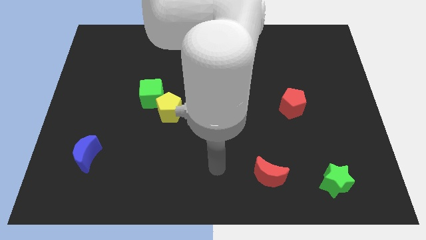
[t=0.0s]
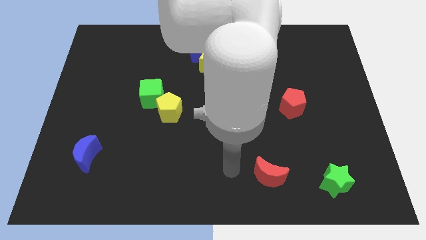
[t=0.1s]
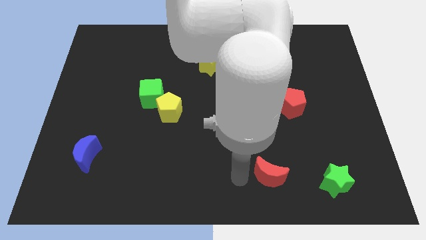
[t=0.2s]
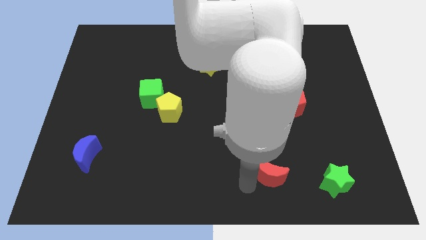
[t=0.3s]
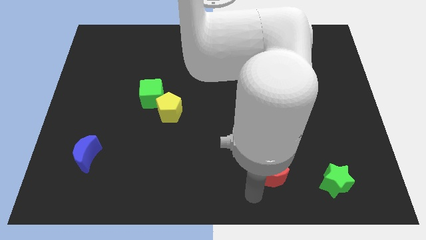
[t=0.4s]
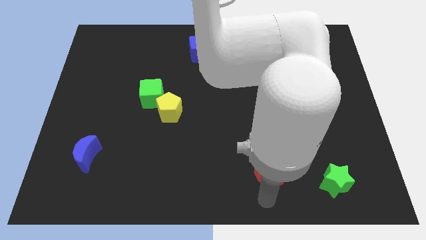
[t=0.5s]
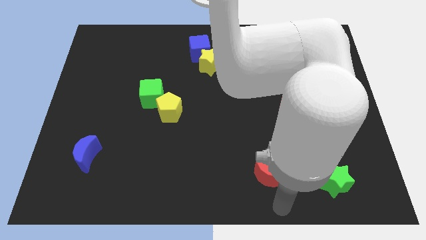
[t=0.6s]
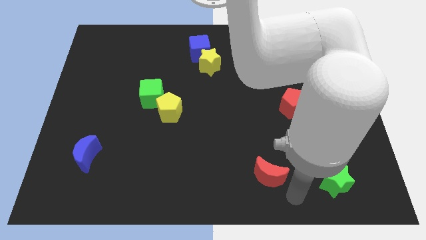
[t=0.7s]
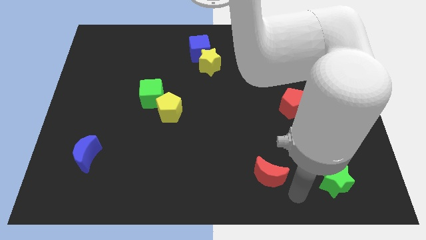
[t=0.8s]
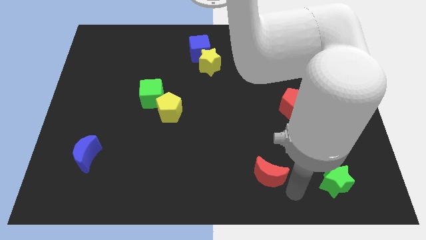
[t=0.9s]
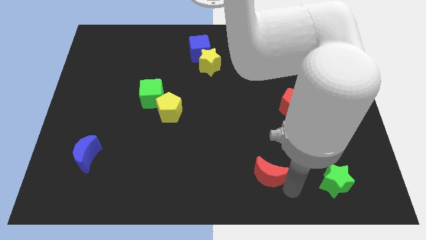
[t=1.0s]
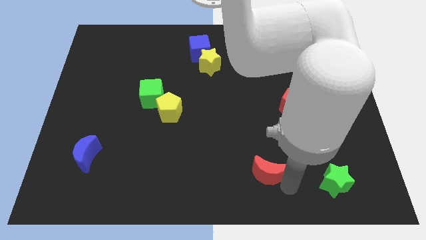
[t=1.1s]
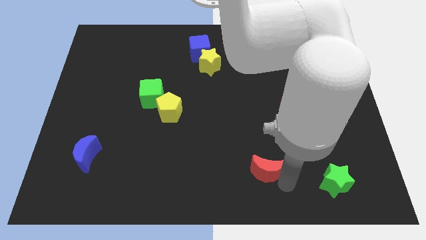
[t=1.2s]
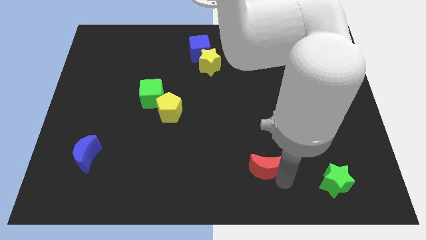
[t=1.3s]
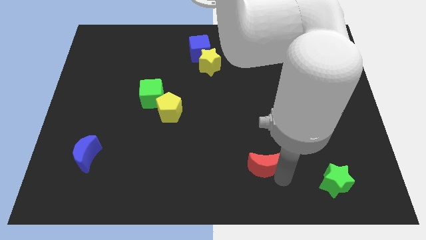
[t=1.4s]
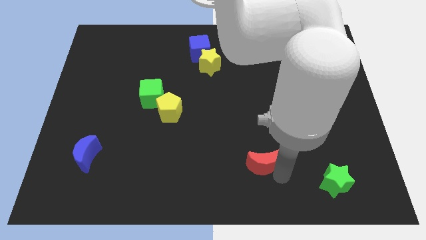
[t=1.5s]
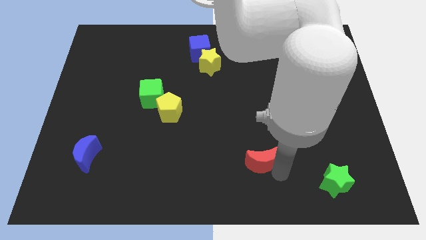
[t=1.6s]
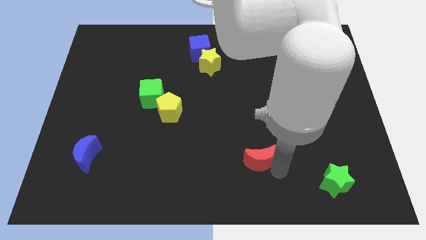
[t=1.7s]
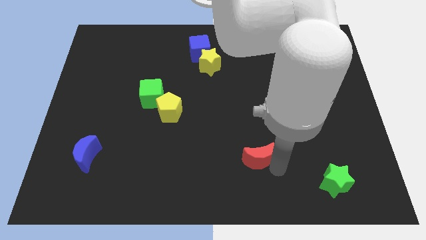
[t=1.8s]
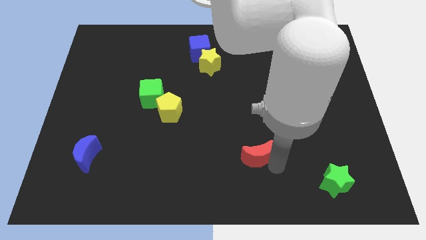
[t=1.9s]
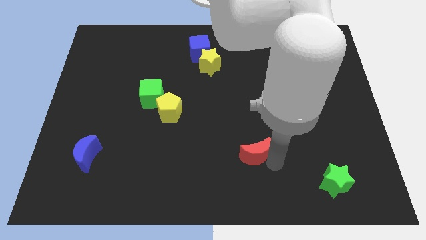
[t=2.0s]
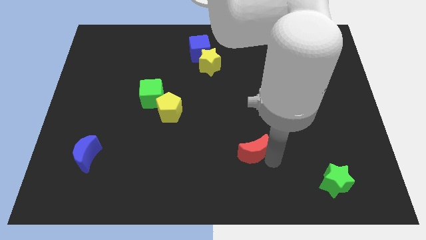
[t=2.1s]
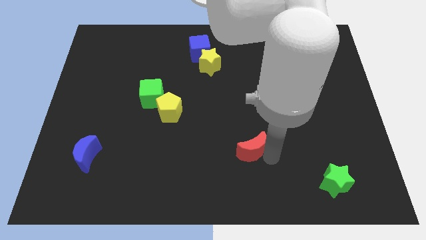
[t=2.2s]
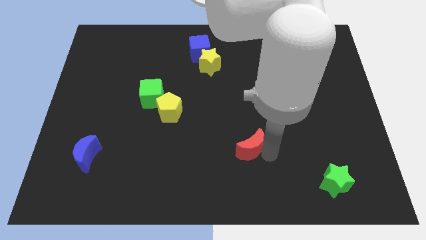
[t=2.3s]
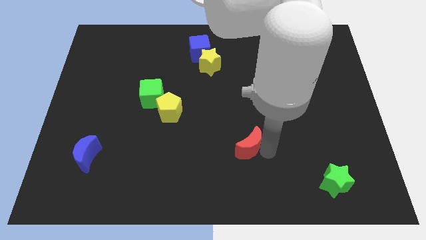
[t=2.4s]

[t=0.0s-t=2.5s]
push the red moon upwards and to the left diagonally somewhat

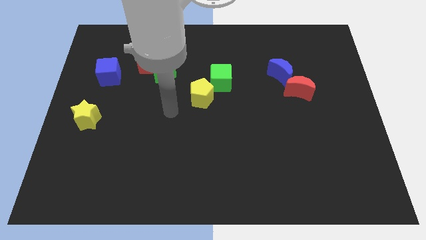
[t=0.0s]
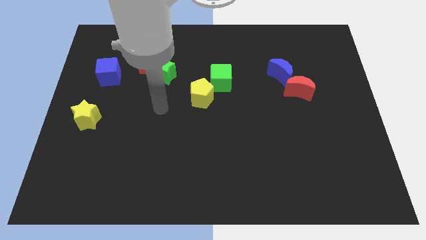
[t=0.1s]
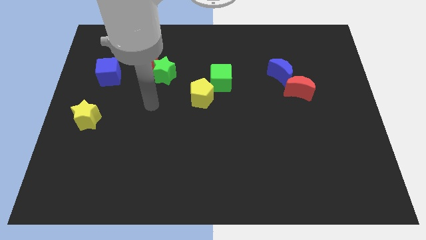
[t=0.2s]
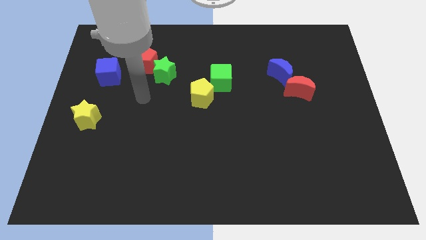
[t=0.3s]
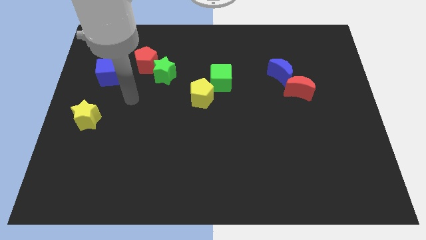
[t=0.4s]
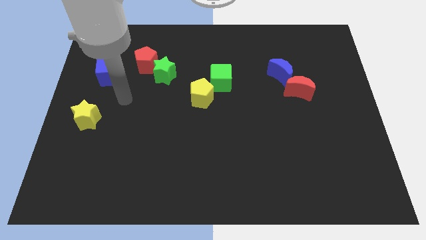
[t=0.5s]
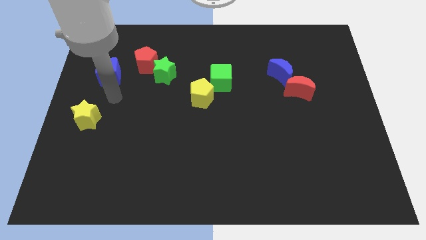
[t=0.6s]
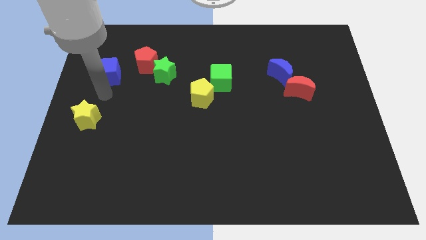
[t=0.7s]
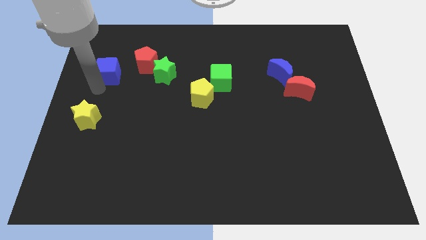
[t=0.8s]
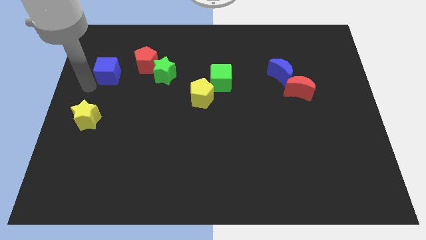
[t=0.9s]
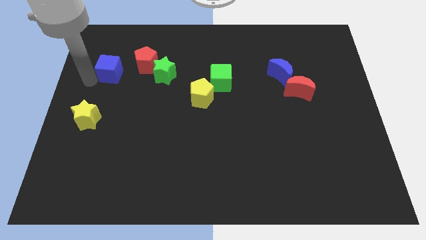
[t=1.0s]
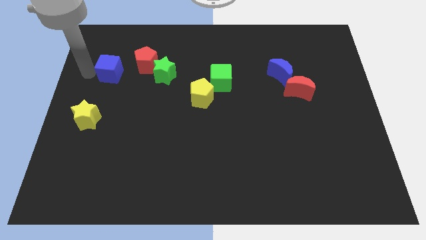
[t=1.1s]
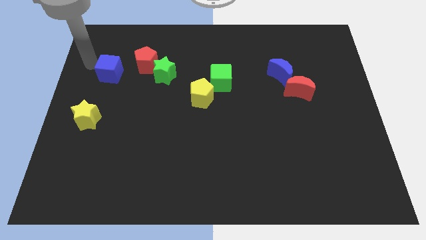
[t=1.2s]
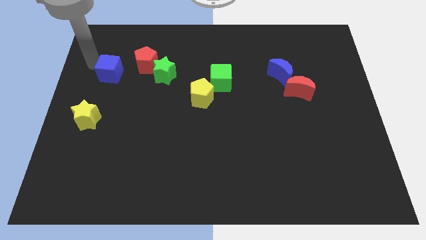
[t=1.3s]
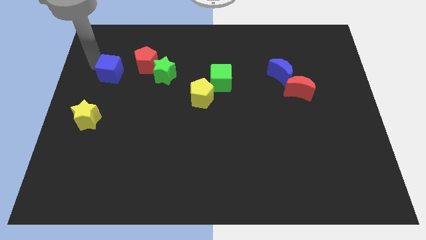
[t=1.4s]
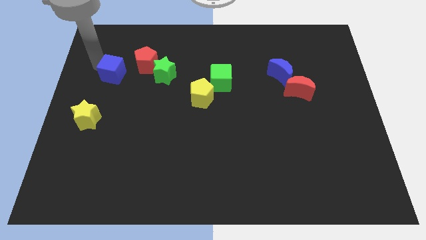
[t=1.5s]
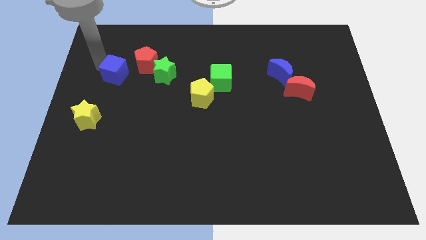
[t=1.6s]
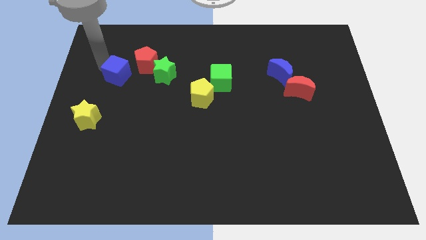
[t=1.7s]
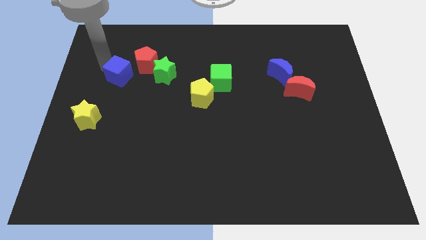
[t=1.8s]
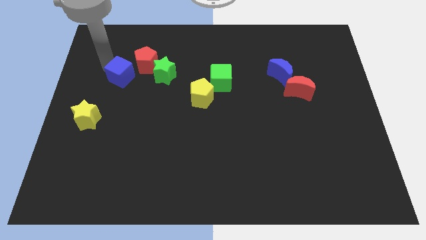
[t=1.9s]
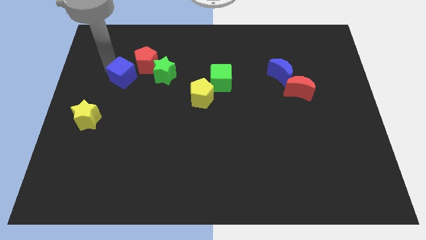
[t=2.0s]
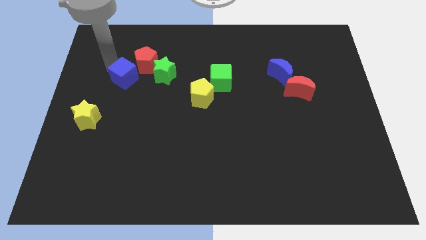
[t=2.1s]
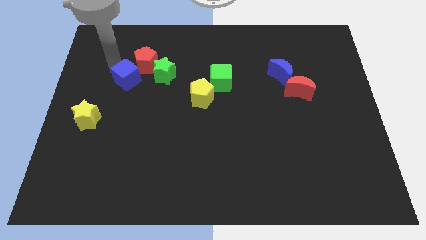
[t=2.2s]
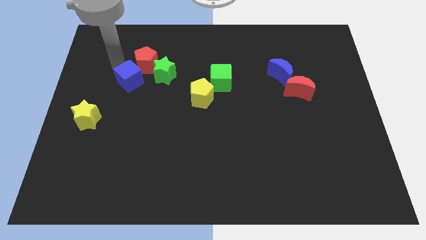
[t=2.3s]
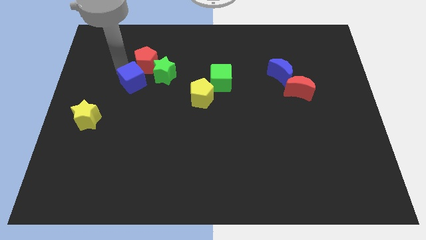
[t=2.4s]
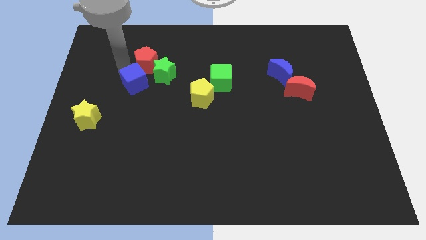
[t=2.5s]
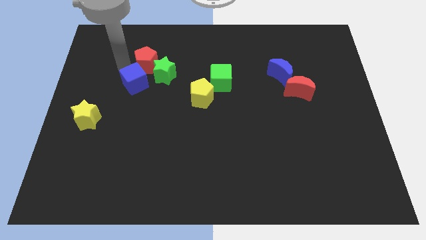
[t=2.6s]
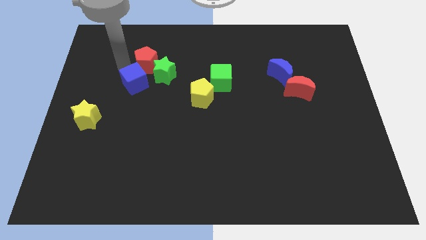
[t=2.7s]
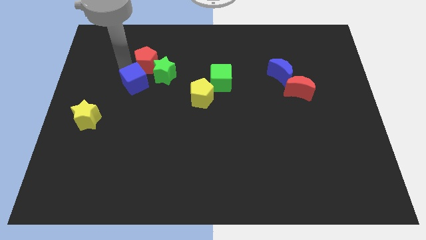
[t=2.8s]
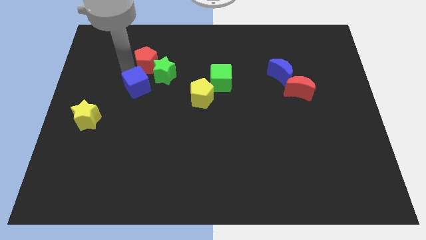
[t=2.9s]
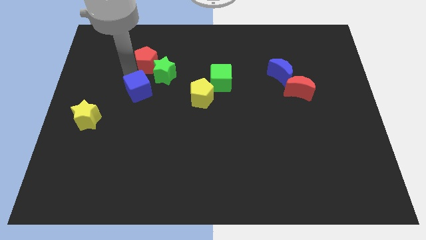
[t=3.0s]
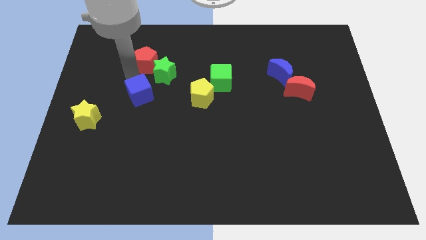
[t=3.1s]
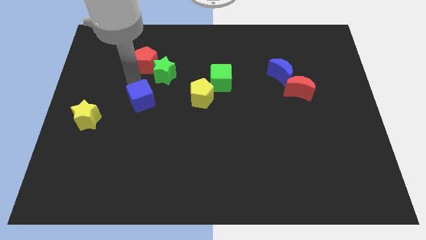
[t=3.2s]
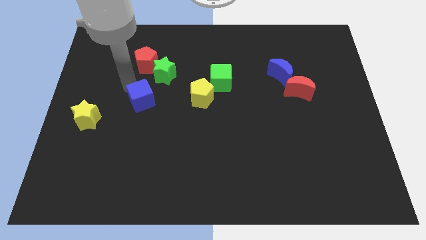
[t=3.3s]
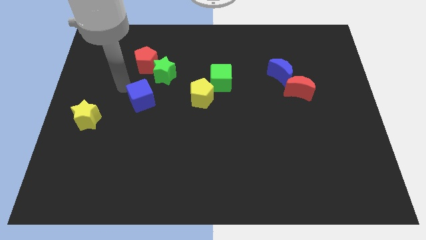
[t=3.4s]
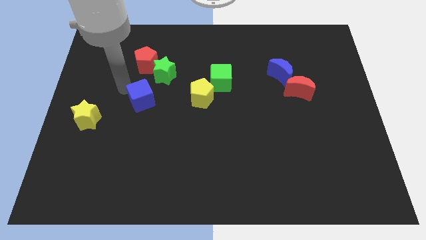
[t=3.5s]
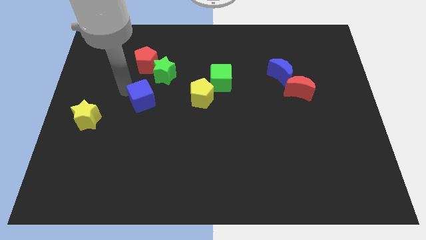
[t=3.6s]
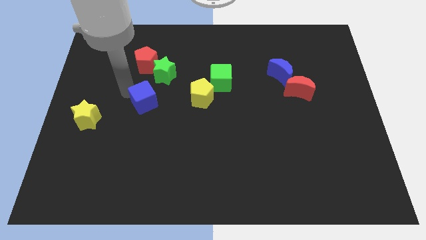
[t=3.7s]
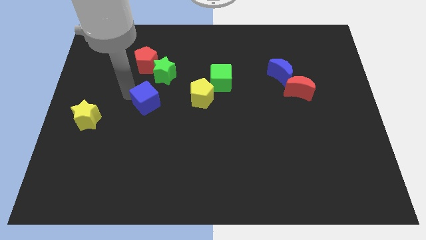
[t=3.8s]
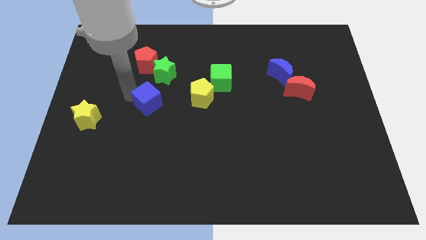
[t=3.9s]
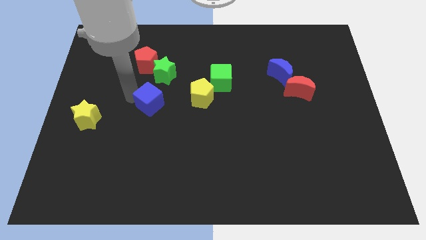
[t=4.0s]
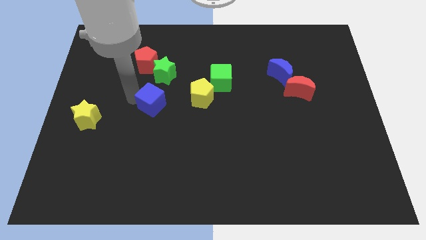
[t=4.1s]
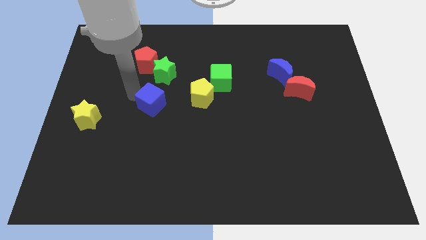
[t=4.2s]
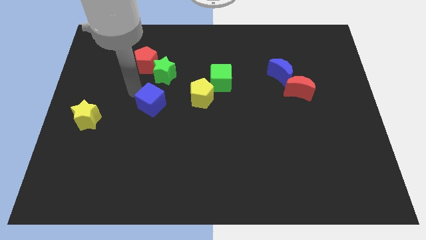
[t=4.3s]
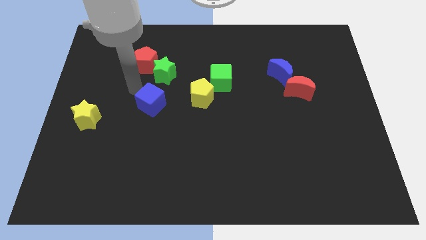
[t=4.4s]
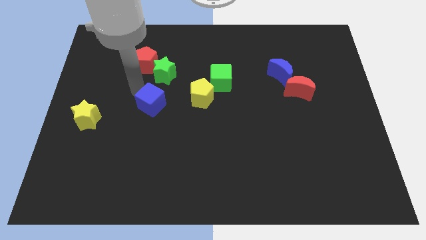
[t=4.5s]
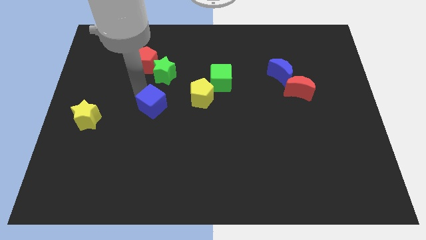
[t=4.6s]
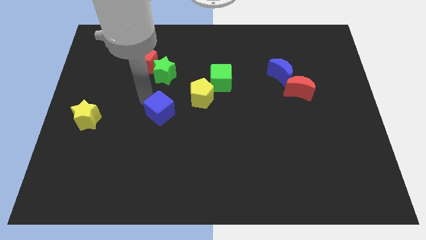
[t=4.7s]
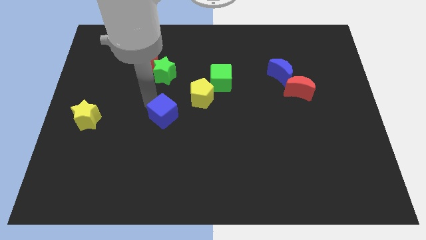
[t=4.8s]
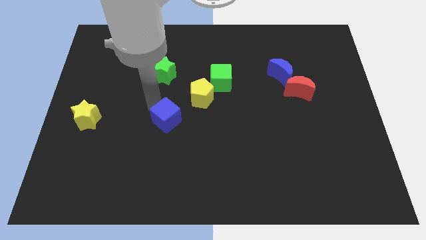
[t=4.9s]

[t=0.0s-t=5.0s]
push the blue cube diagonally downwards and right

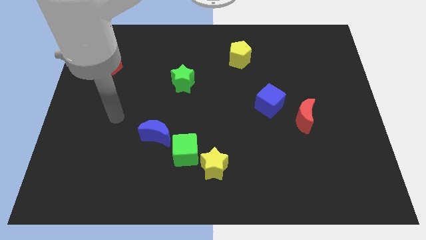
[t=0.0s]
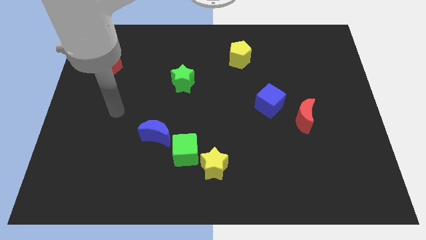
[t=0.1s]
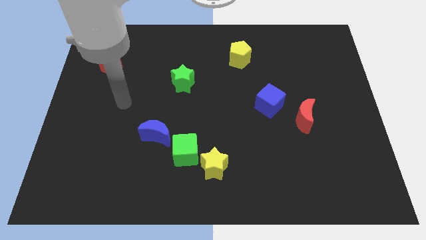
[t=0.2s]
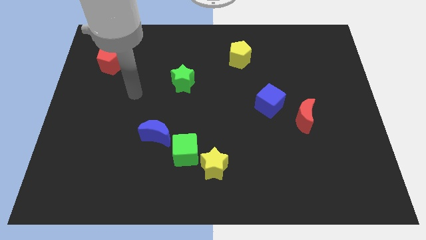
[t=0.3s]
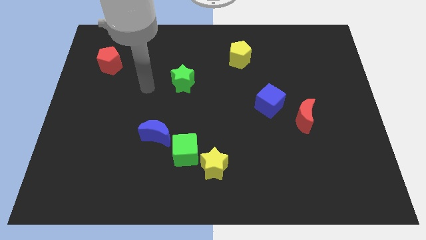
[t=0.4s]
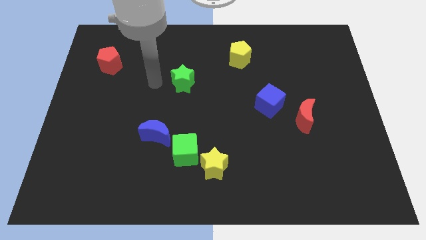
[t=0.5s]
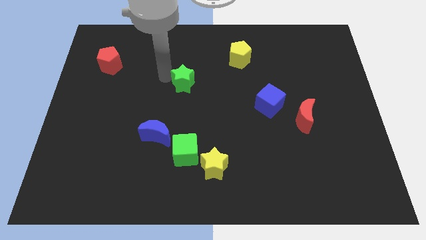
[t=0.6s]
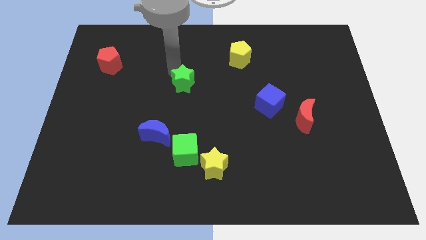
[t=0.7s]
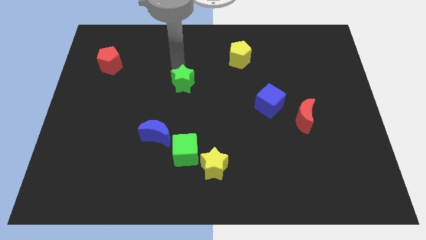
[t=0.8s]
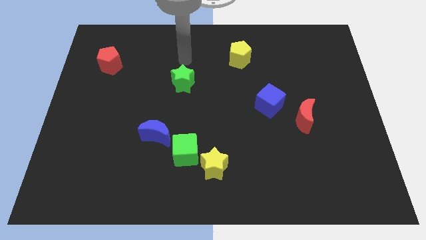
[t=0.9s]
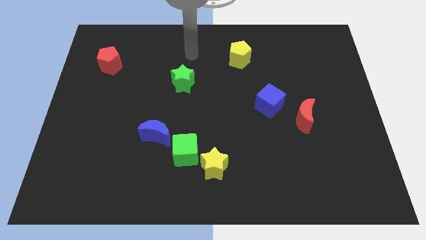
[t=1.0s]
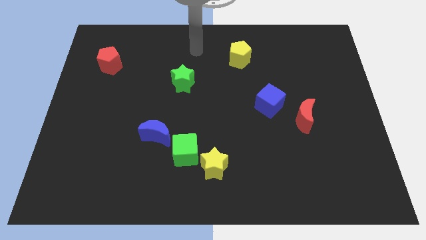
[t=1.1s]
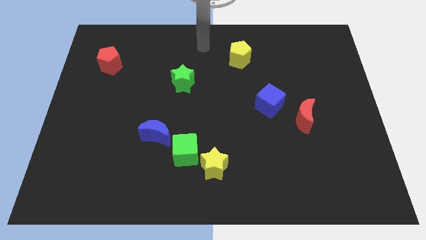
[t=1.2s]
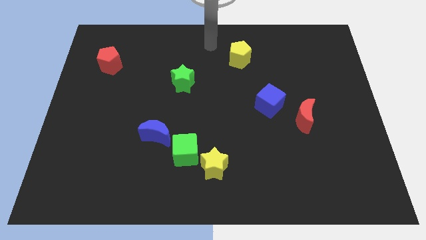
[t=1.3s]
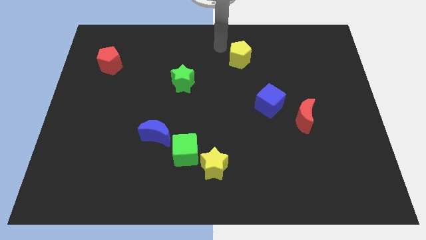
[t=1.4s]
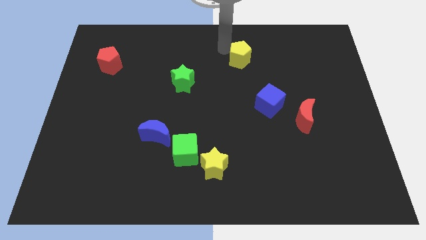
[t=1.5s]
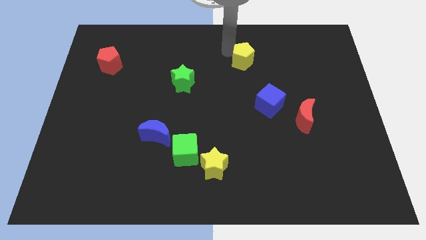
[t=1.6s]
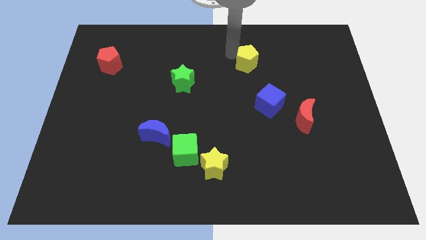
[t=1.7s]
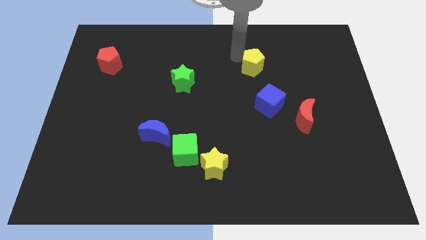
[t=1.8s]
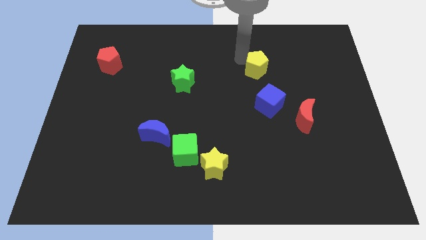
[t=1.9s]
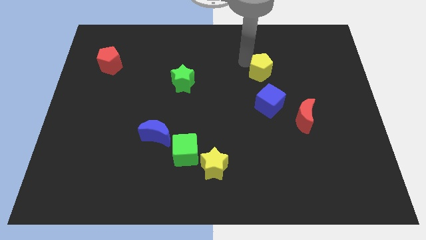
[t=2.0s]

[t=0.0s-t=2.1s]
slide the yellow pentagon a bit down and then to the right
